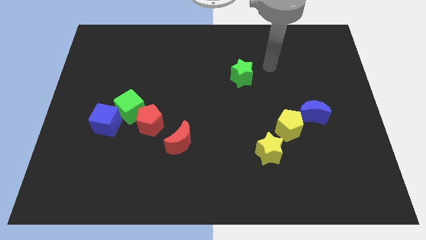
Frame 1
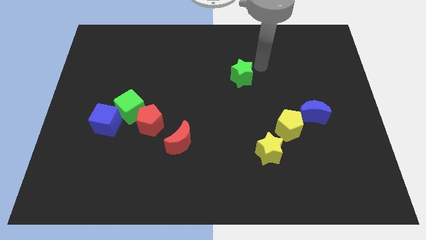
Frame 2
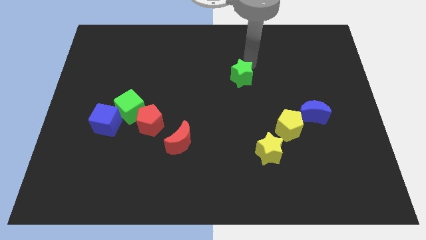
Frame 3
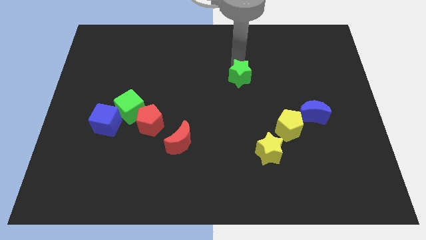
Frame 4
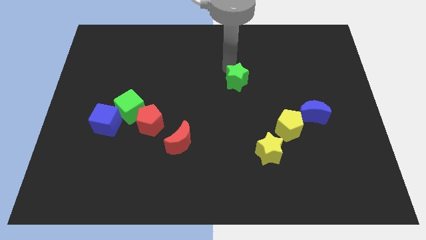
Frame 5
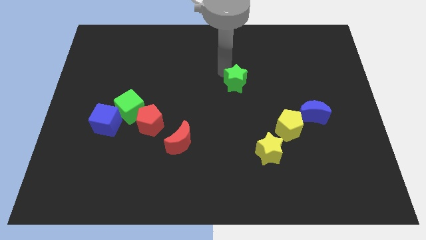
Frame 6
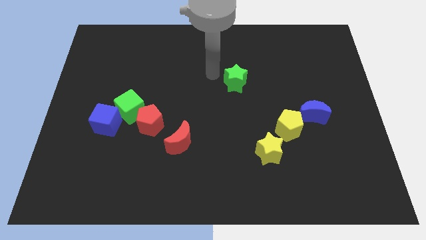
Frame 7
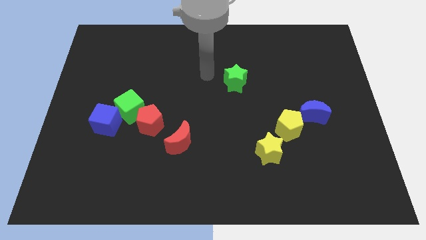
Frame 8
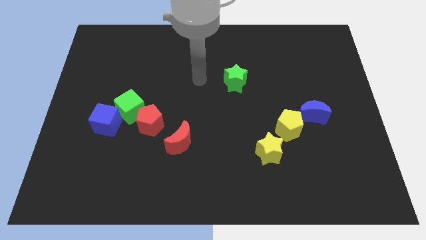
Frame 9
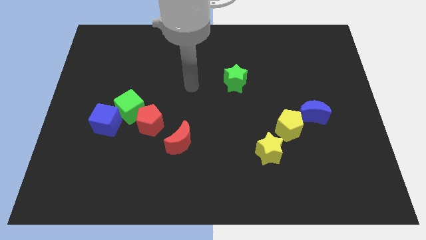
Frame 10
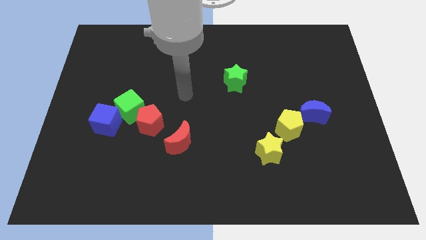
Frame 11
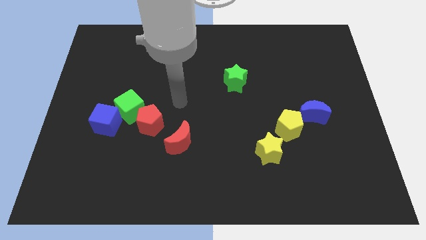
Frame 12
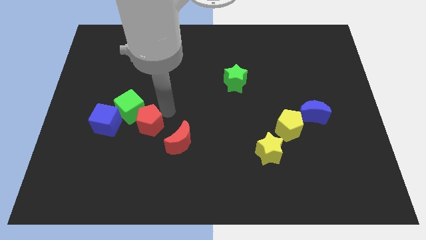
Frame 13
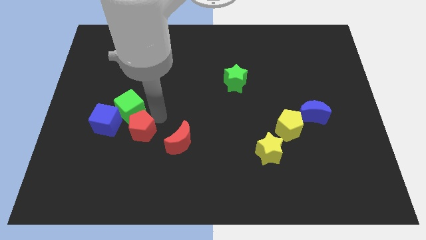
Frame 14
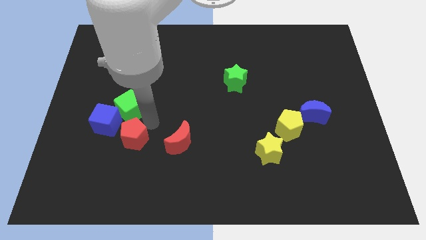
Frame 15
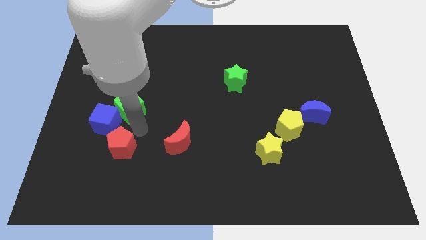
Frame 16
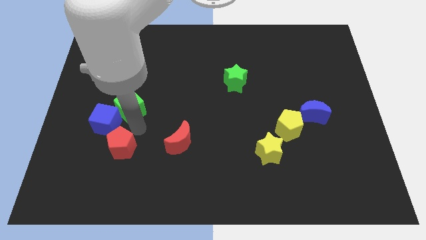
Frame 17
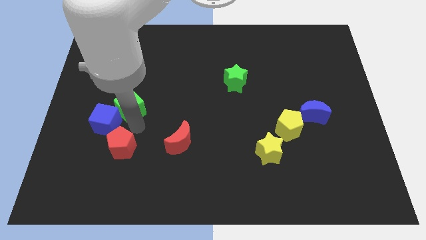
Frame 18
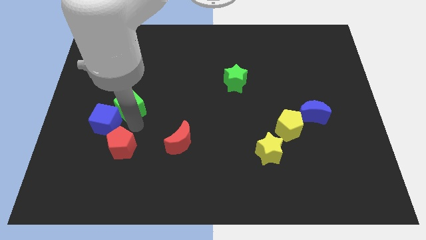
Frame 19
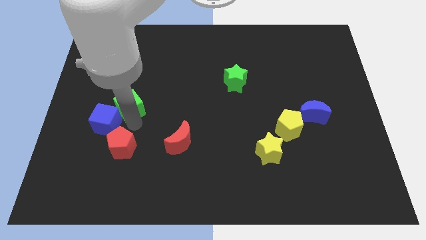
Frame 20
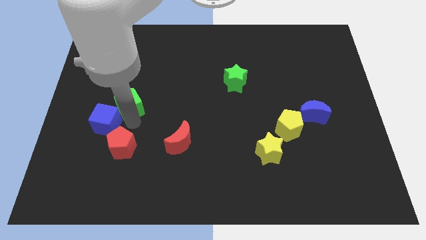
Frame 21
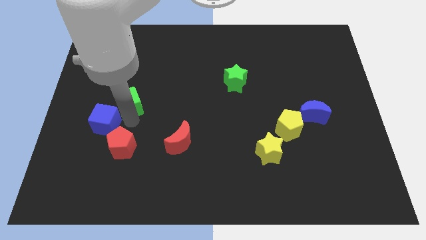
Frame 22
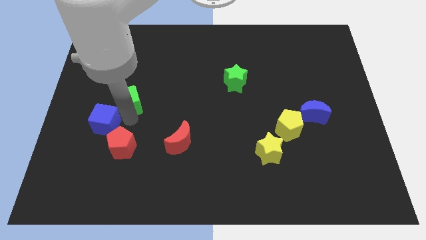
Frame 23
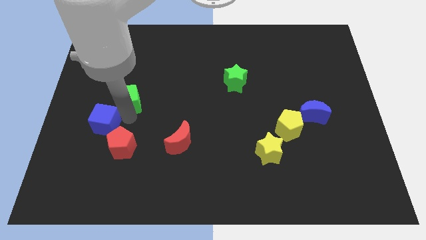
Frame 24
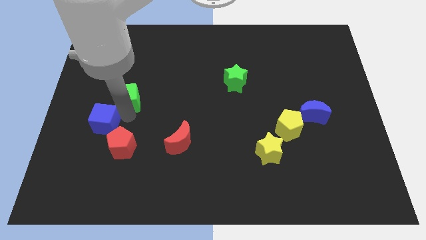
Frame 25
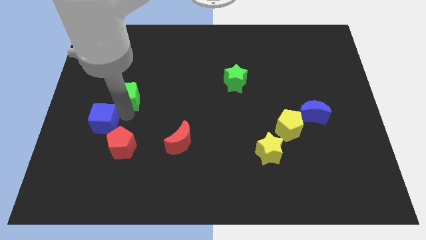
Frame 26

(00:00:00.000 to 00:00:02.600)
pull the green cube apart from the blue cube and red pentagon

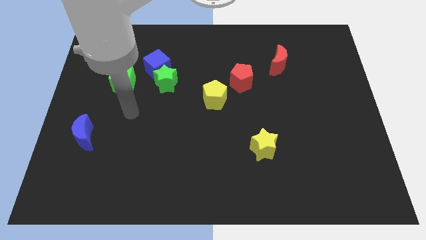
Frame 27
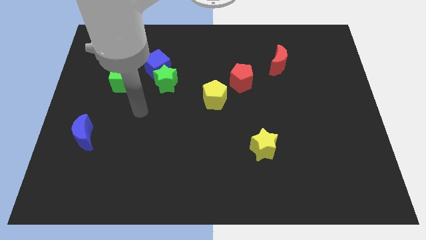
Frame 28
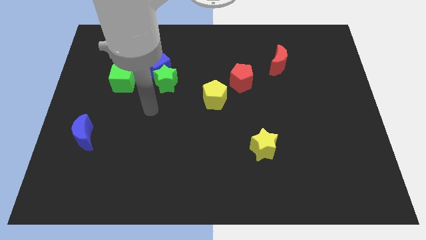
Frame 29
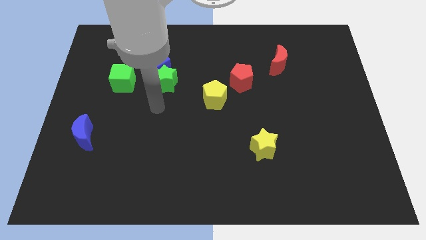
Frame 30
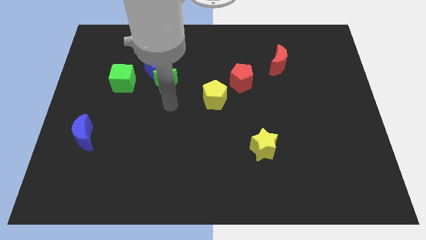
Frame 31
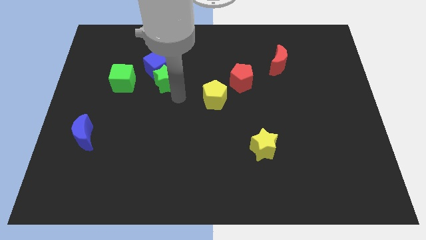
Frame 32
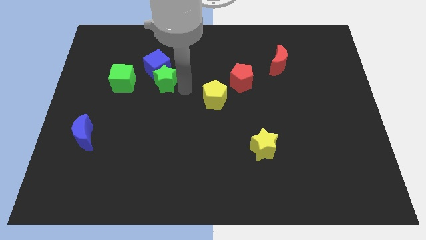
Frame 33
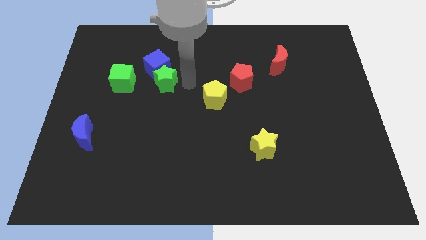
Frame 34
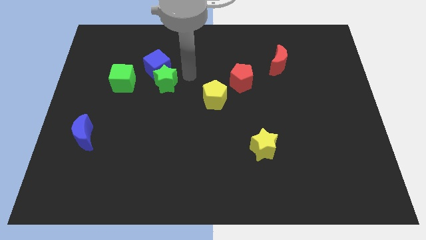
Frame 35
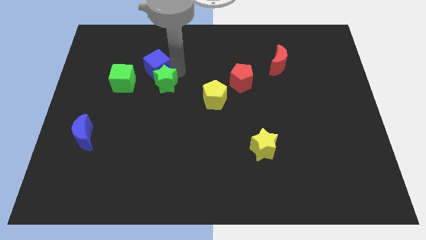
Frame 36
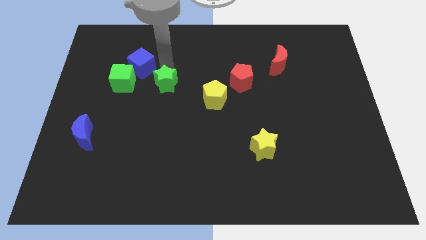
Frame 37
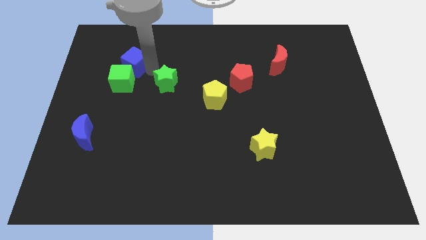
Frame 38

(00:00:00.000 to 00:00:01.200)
pull the green star apart from the blue cube

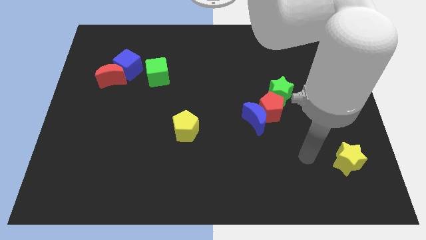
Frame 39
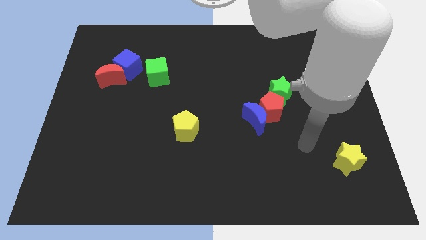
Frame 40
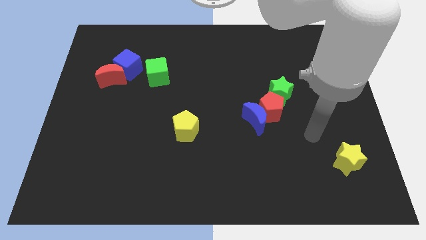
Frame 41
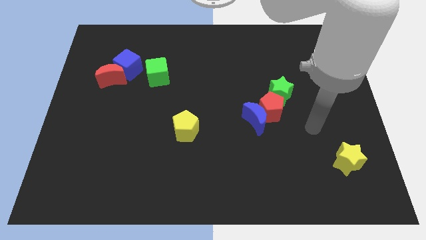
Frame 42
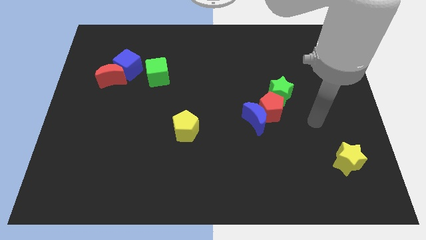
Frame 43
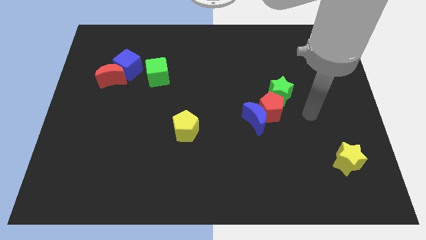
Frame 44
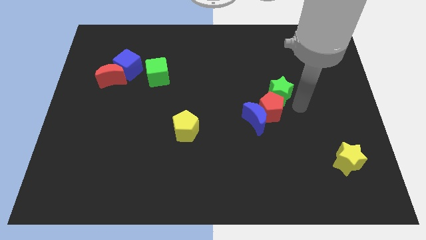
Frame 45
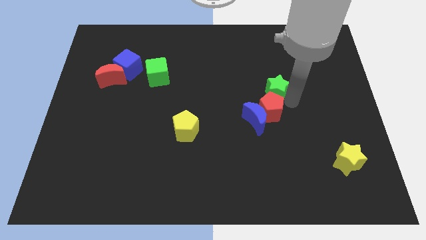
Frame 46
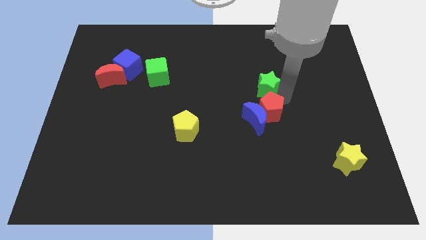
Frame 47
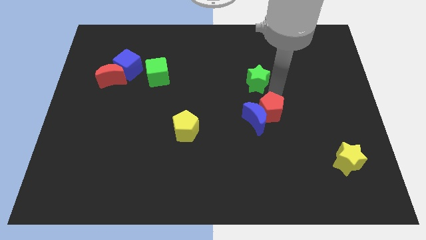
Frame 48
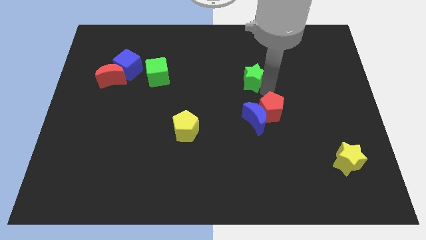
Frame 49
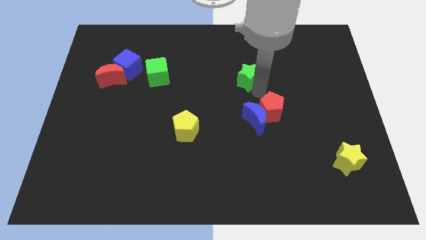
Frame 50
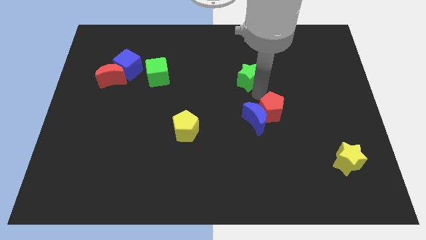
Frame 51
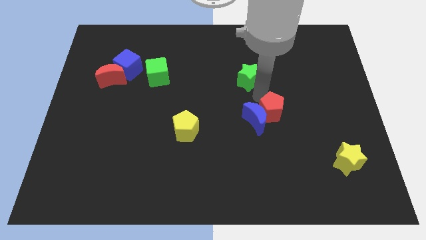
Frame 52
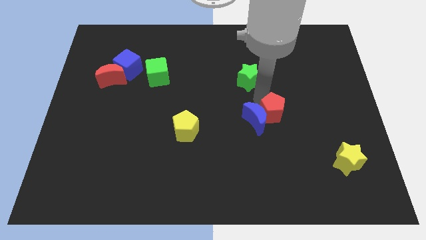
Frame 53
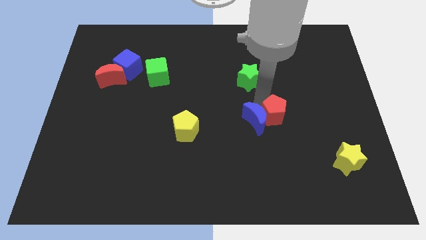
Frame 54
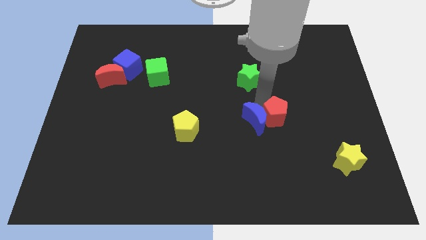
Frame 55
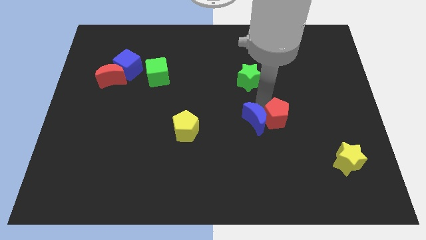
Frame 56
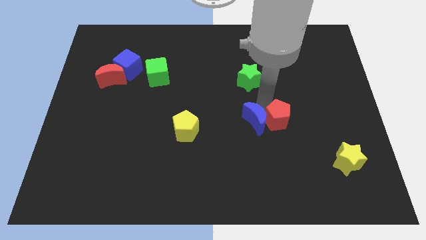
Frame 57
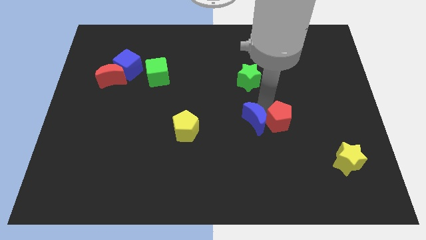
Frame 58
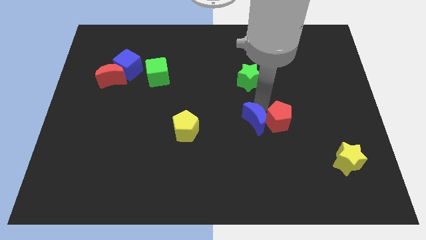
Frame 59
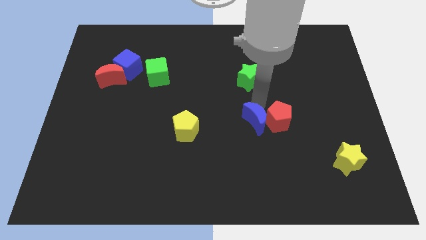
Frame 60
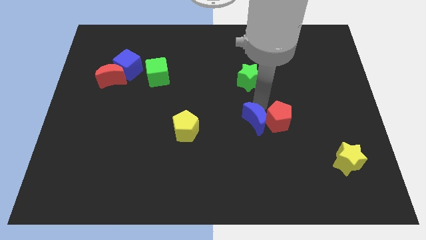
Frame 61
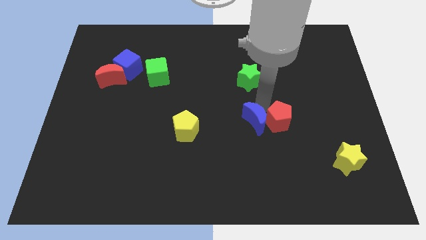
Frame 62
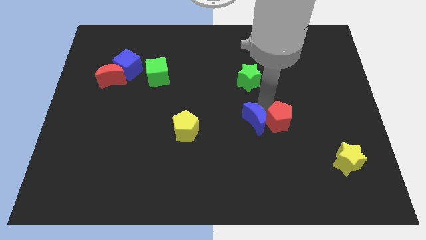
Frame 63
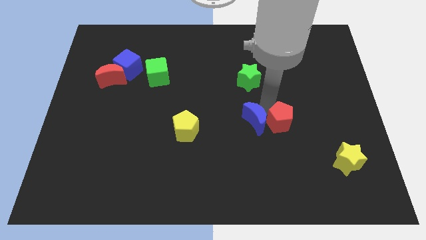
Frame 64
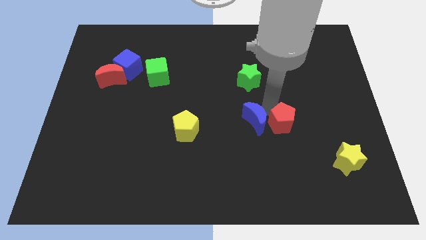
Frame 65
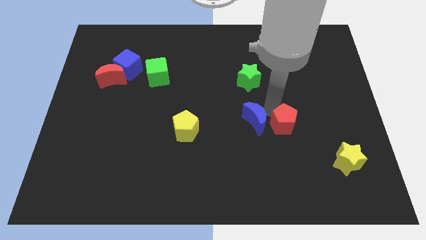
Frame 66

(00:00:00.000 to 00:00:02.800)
pull the red pentagon apart from the blue moon and green star

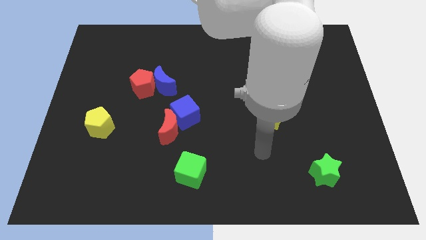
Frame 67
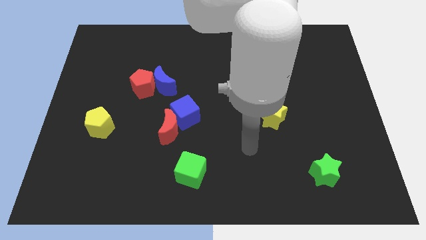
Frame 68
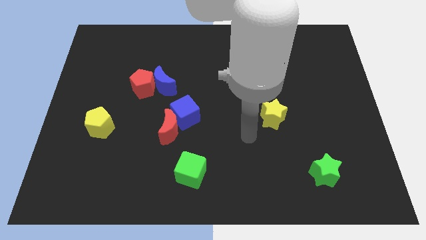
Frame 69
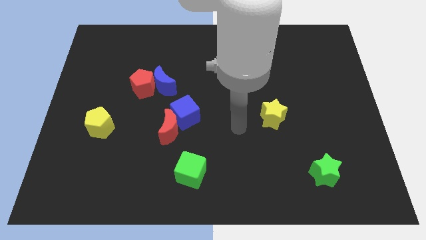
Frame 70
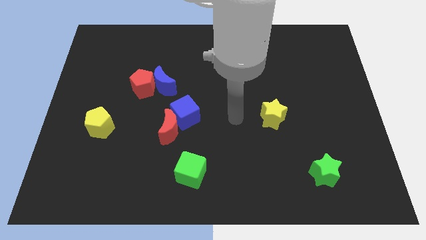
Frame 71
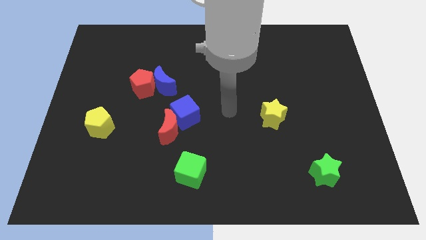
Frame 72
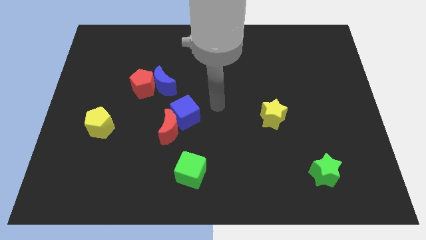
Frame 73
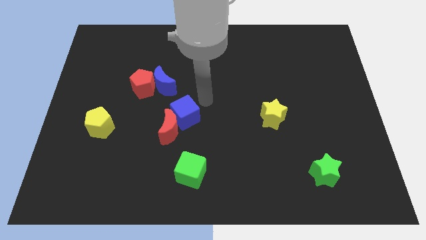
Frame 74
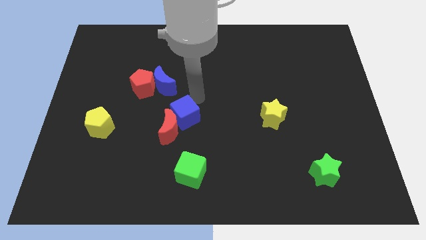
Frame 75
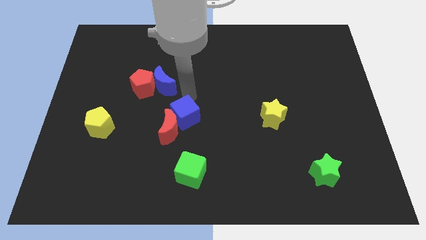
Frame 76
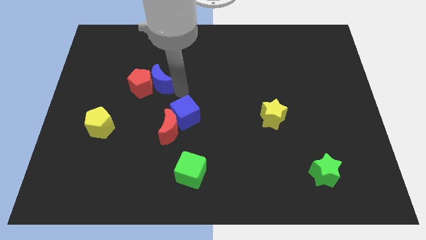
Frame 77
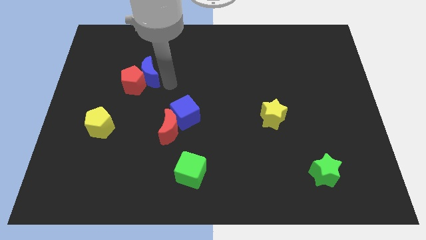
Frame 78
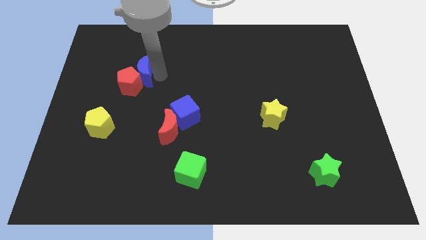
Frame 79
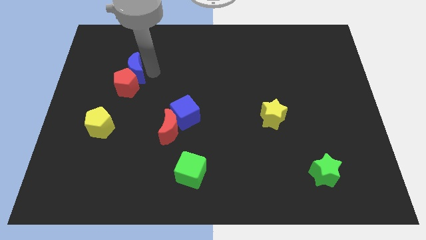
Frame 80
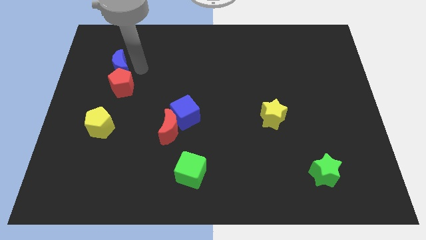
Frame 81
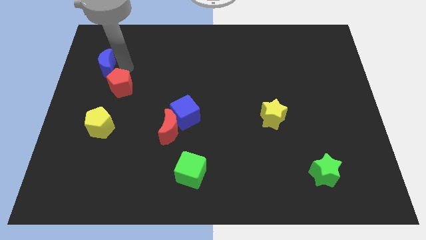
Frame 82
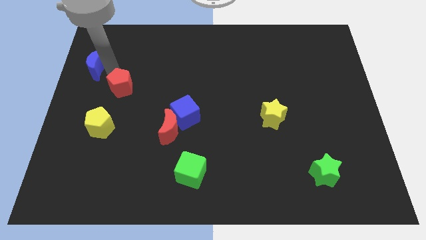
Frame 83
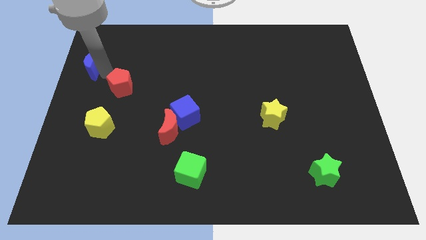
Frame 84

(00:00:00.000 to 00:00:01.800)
move the red pentagon away from the blue moon

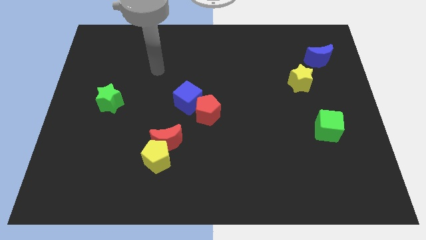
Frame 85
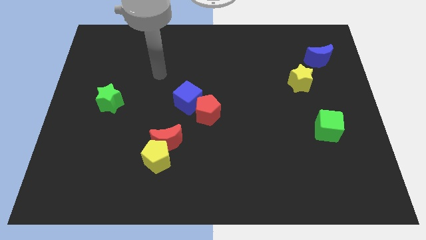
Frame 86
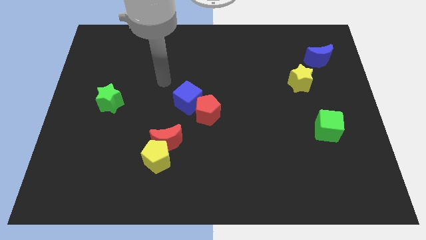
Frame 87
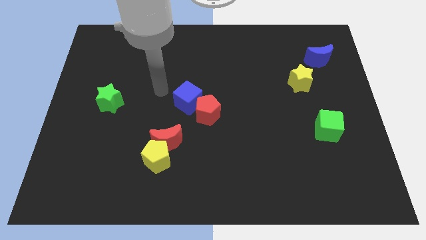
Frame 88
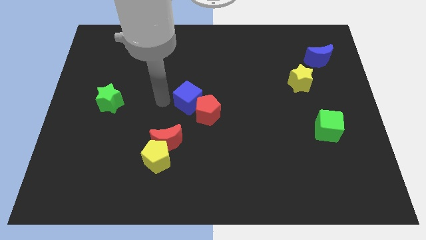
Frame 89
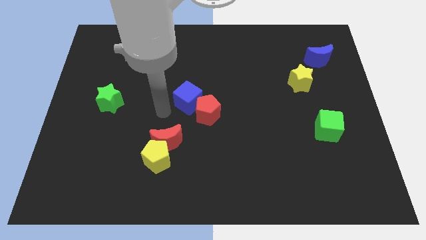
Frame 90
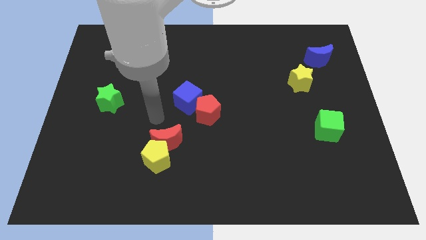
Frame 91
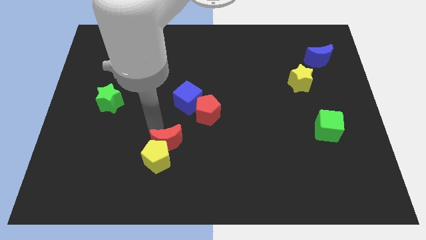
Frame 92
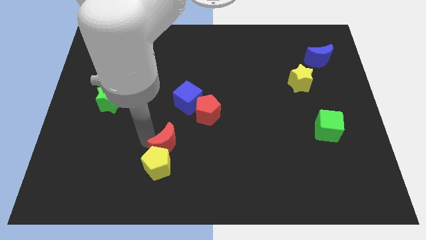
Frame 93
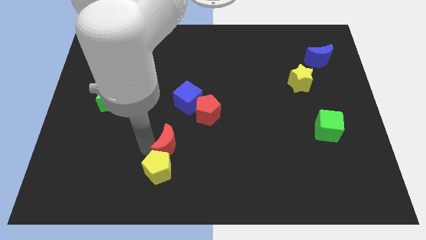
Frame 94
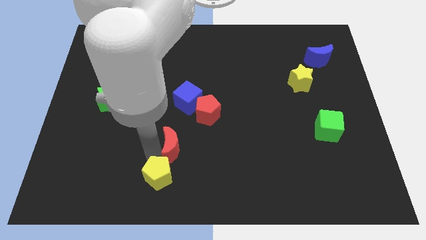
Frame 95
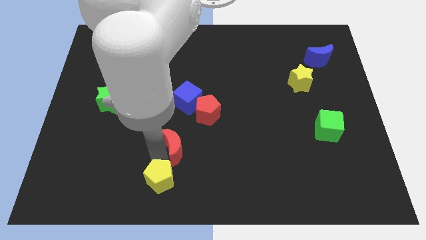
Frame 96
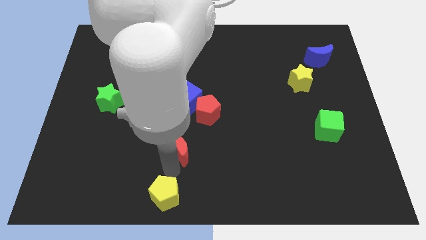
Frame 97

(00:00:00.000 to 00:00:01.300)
move the red moon away from the yellow pentagon
